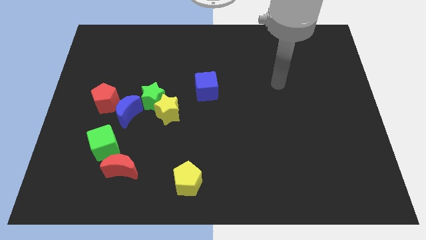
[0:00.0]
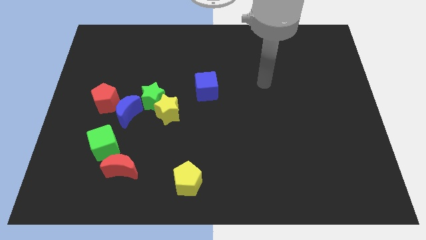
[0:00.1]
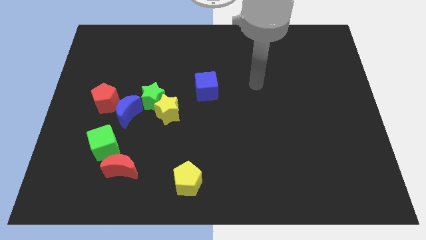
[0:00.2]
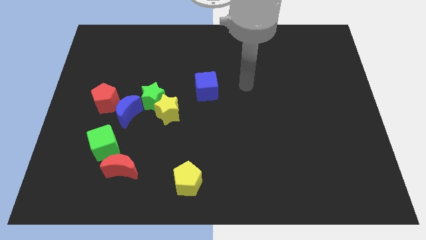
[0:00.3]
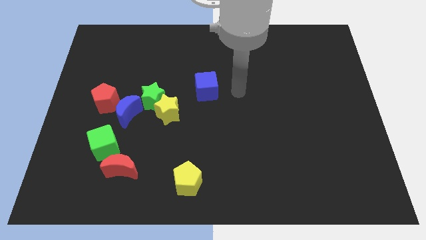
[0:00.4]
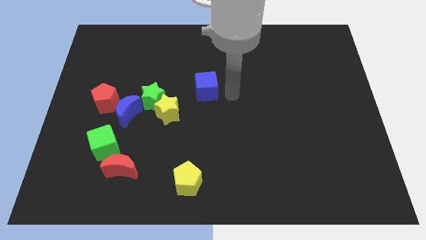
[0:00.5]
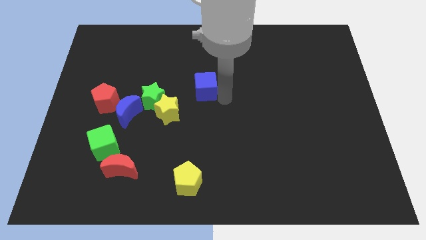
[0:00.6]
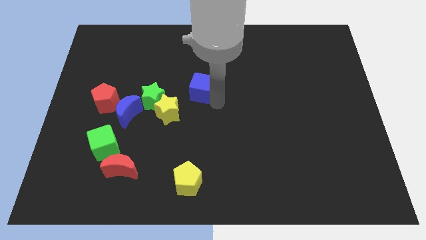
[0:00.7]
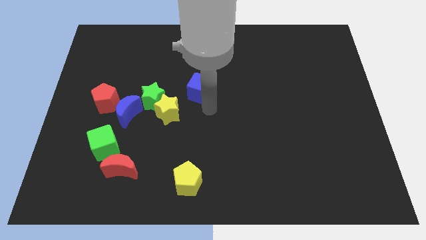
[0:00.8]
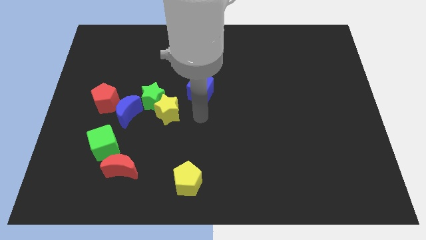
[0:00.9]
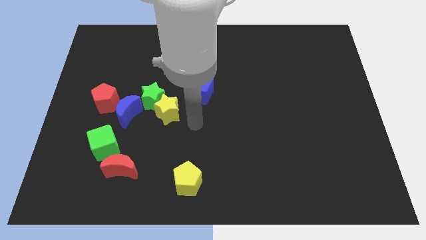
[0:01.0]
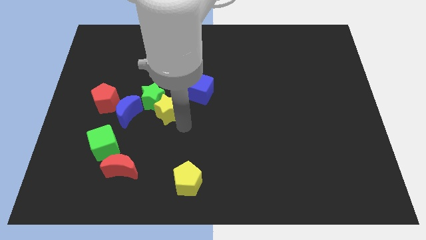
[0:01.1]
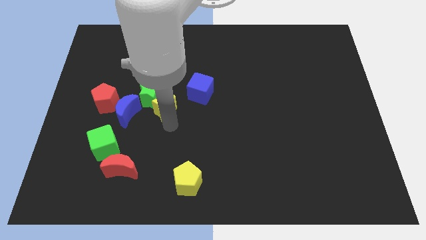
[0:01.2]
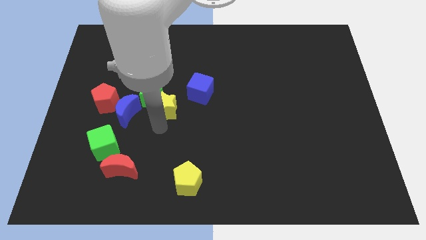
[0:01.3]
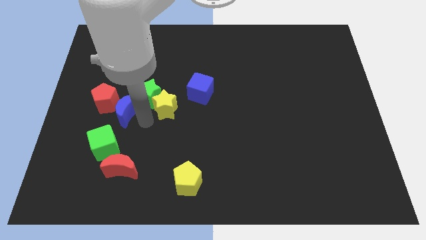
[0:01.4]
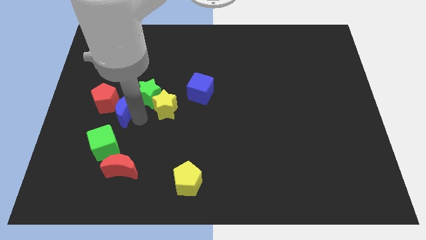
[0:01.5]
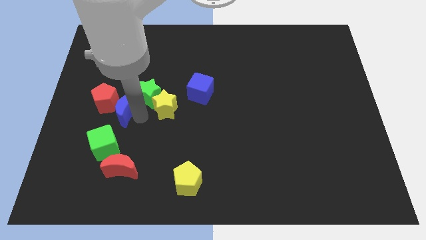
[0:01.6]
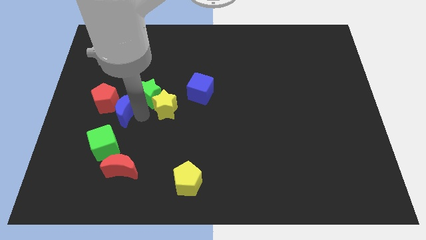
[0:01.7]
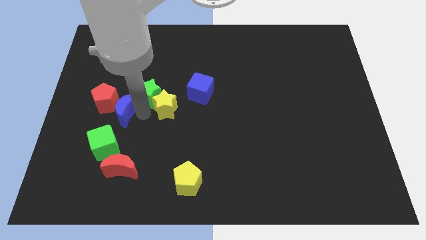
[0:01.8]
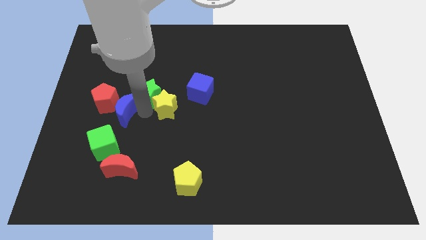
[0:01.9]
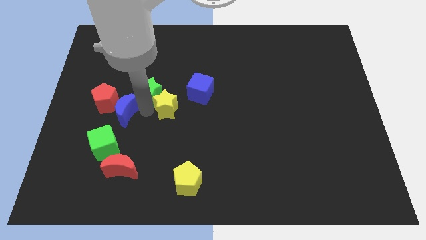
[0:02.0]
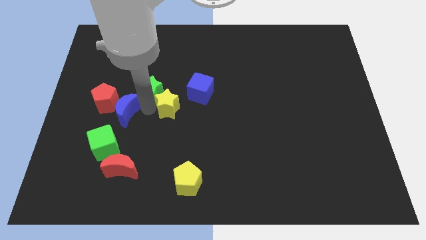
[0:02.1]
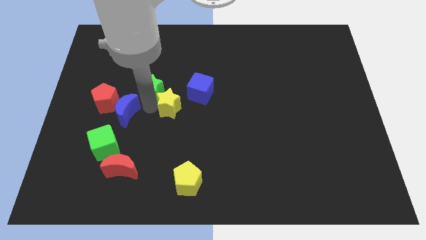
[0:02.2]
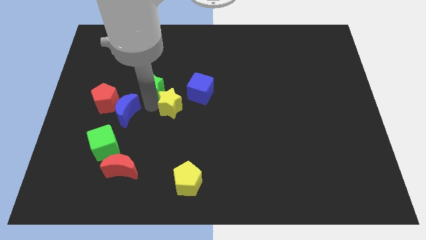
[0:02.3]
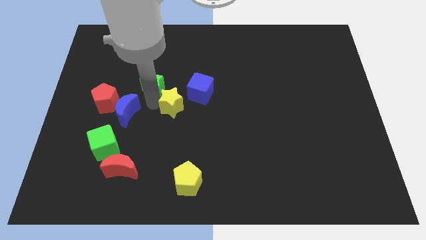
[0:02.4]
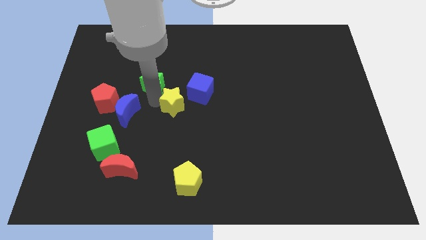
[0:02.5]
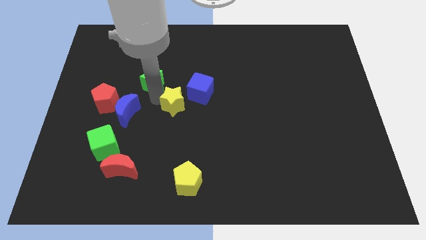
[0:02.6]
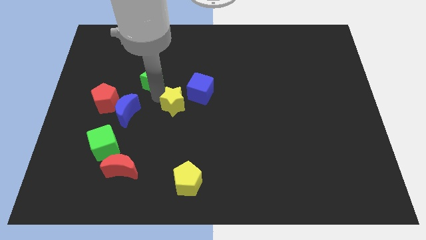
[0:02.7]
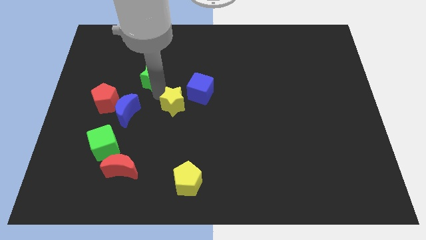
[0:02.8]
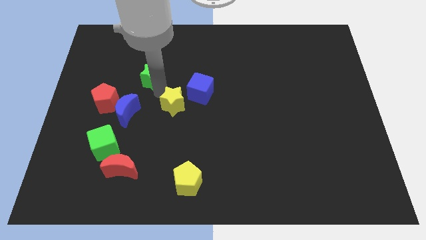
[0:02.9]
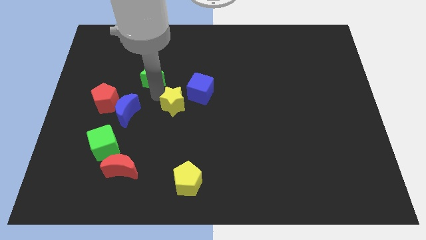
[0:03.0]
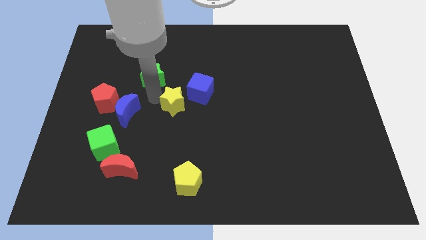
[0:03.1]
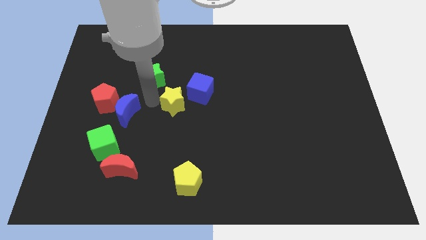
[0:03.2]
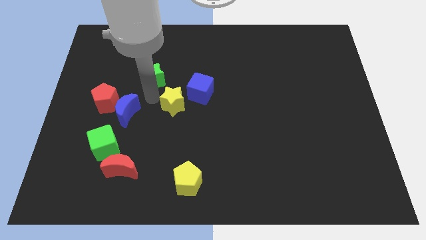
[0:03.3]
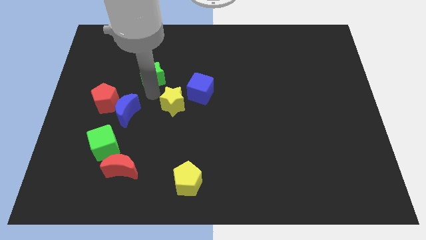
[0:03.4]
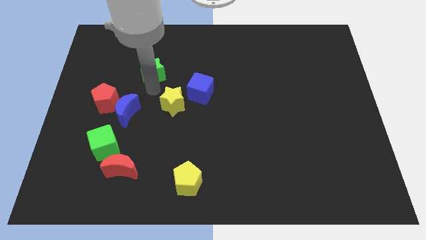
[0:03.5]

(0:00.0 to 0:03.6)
move the green star away from the yellow star and blue moon

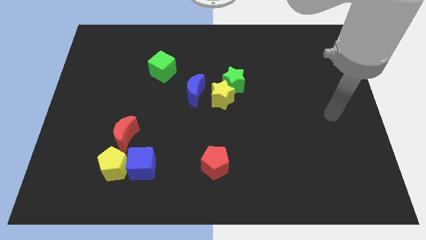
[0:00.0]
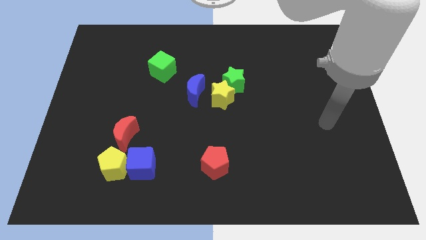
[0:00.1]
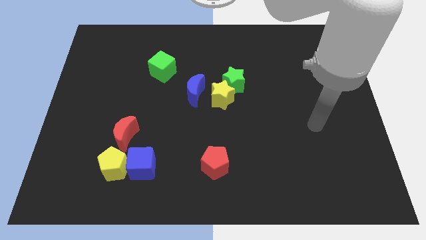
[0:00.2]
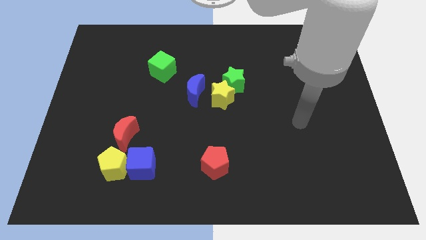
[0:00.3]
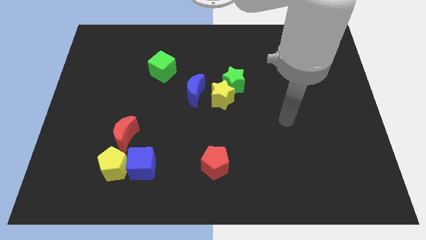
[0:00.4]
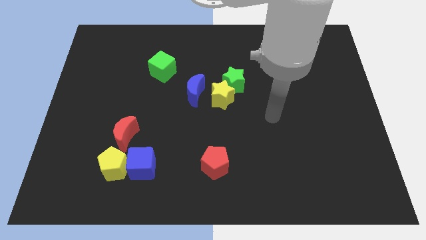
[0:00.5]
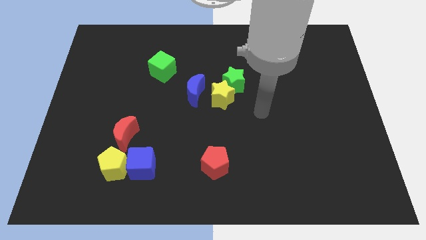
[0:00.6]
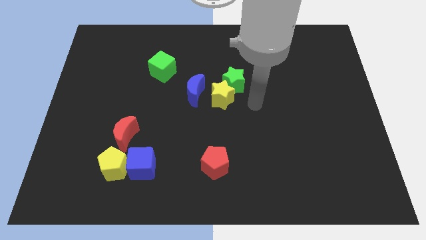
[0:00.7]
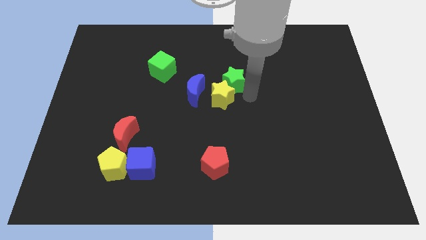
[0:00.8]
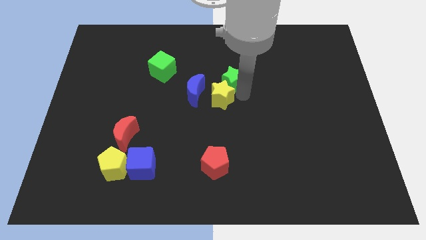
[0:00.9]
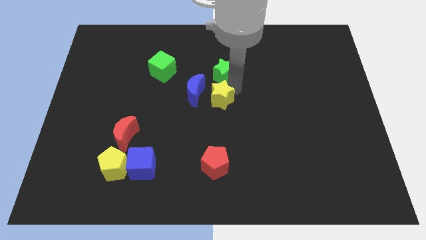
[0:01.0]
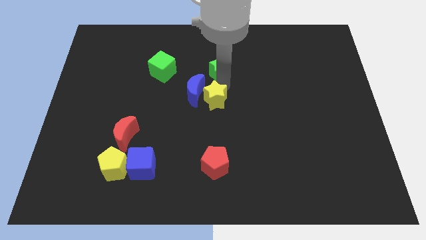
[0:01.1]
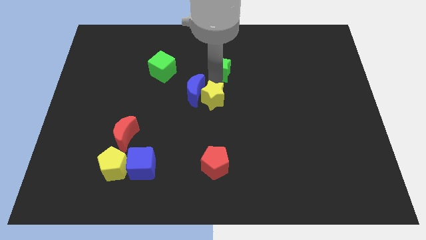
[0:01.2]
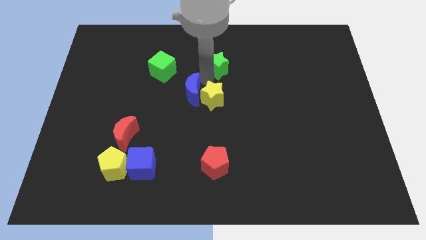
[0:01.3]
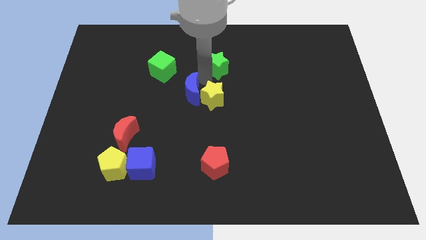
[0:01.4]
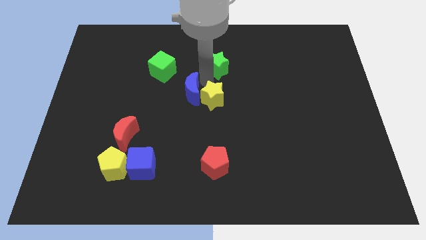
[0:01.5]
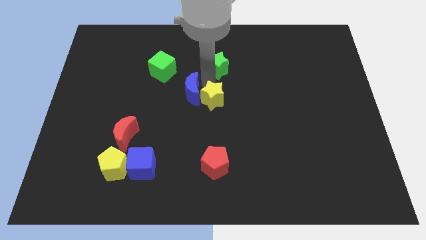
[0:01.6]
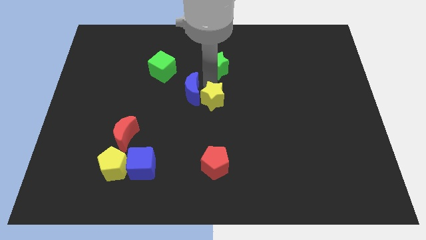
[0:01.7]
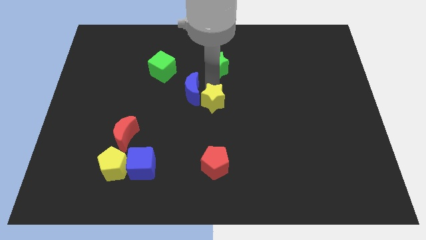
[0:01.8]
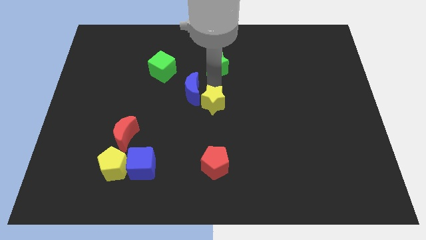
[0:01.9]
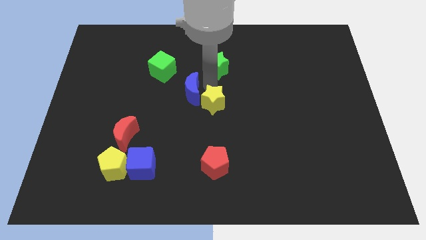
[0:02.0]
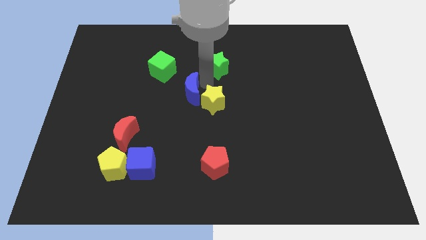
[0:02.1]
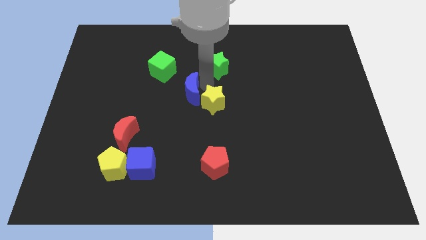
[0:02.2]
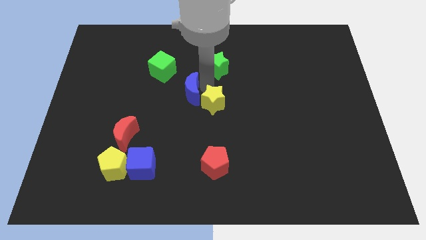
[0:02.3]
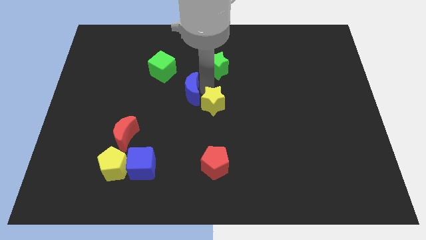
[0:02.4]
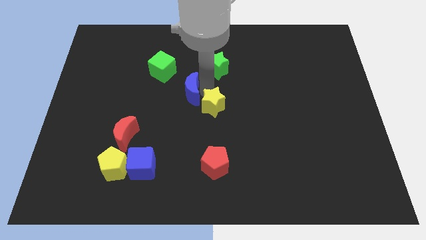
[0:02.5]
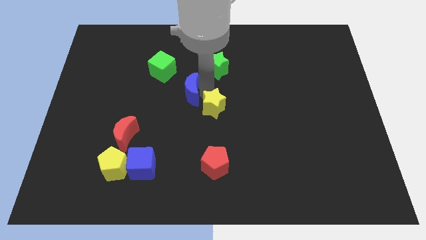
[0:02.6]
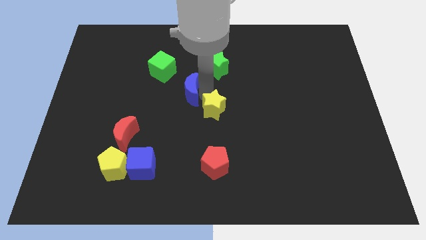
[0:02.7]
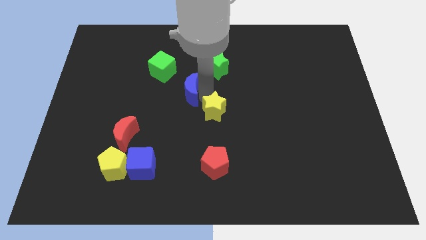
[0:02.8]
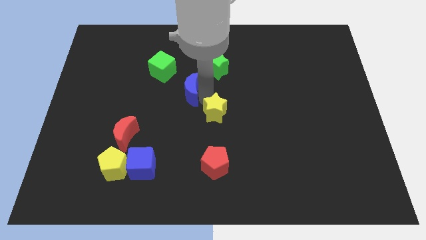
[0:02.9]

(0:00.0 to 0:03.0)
pull the yellow star apart from the green star and blue moon

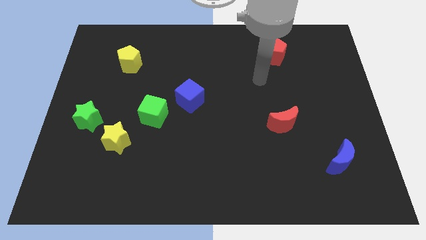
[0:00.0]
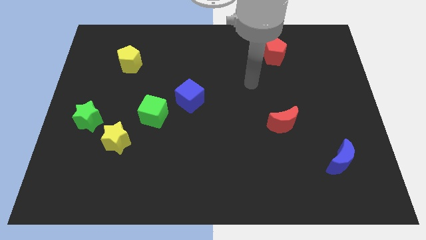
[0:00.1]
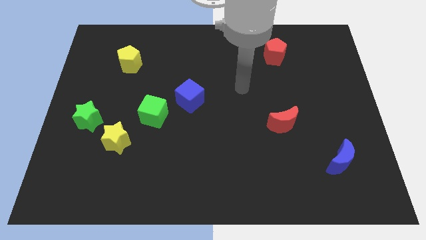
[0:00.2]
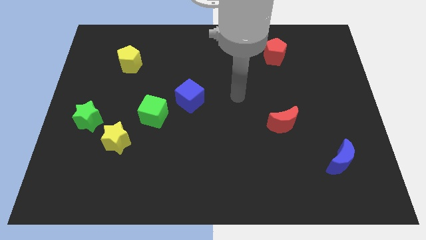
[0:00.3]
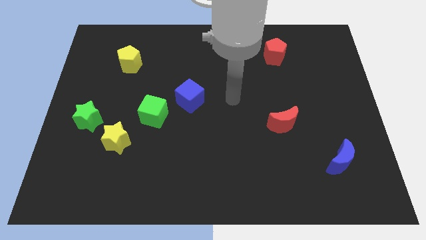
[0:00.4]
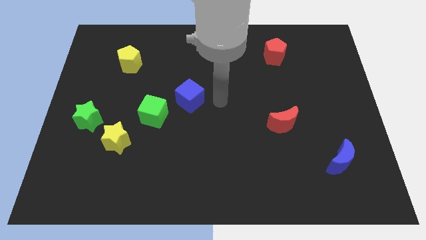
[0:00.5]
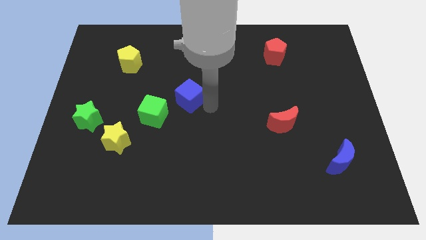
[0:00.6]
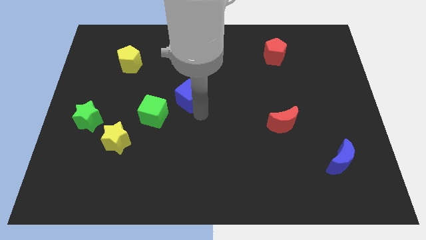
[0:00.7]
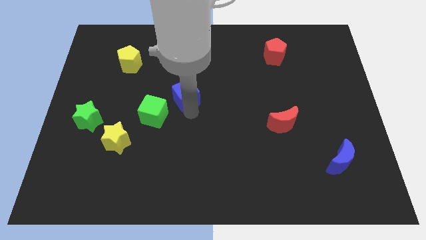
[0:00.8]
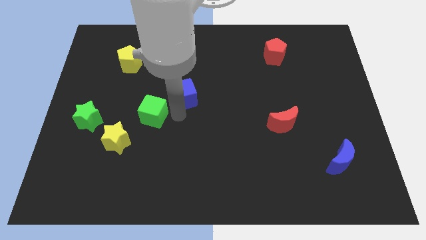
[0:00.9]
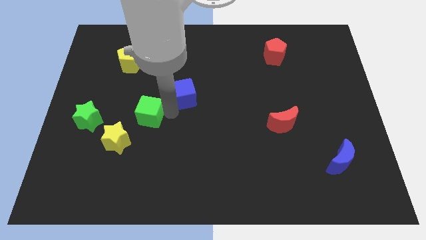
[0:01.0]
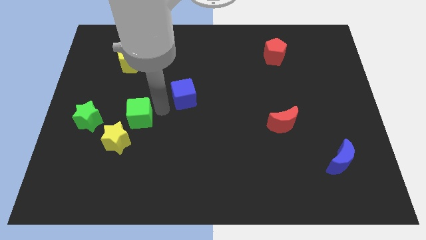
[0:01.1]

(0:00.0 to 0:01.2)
pull the blue cube apart from the green cube

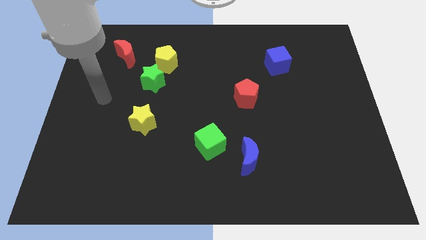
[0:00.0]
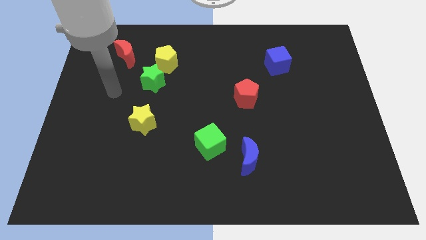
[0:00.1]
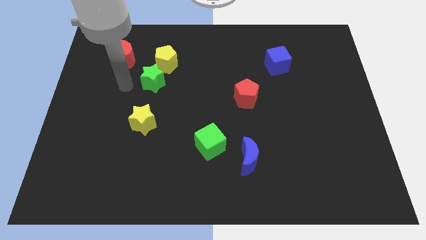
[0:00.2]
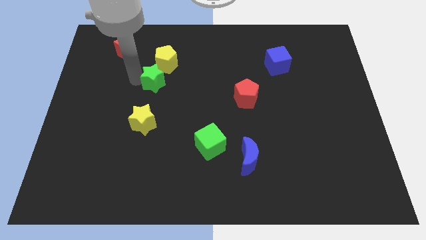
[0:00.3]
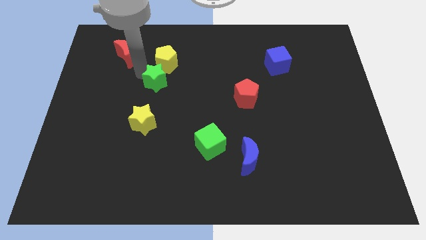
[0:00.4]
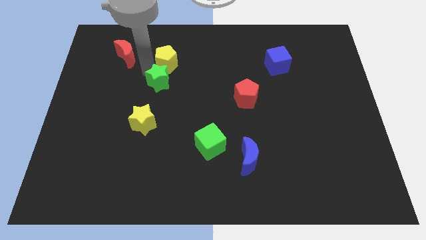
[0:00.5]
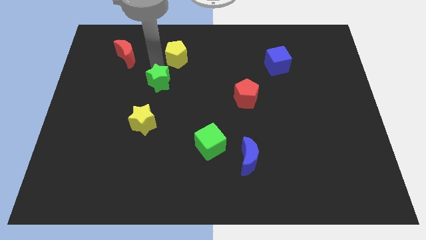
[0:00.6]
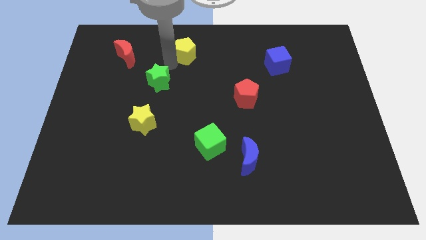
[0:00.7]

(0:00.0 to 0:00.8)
pull the green star apart from the yellow pentagon

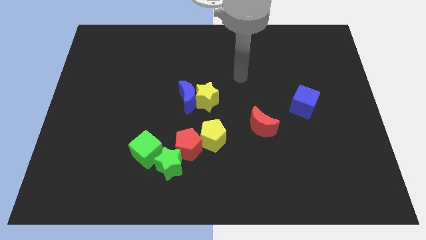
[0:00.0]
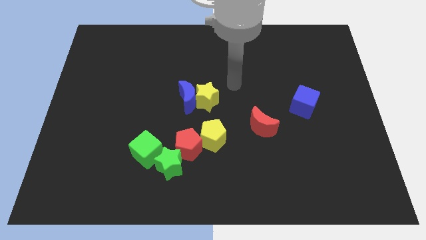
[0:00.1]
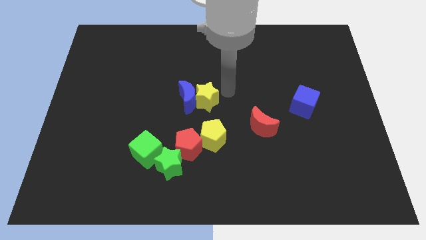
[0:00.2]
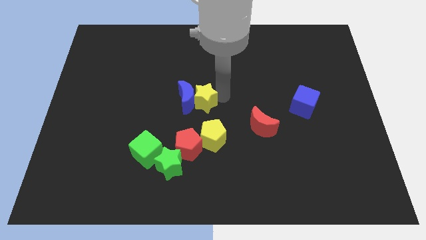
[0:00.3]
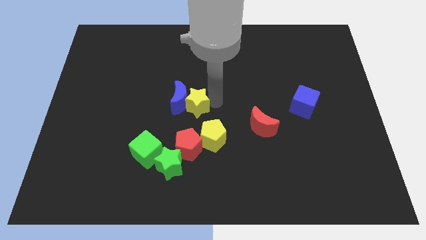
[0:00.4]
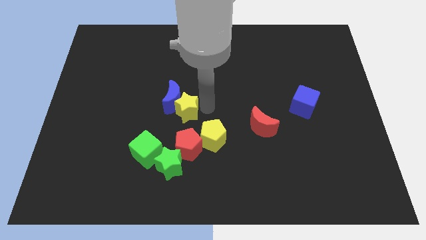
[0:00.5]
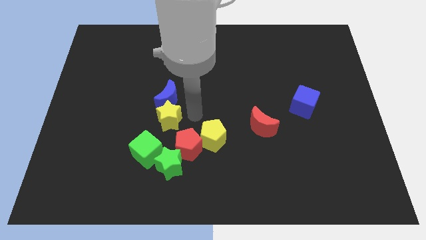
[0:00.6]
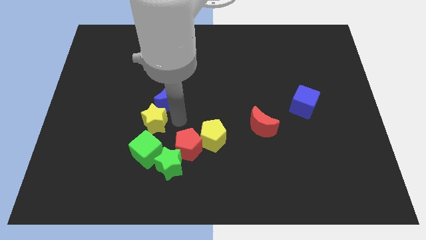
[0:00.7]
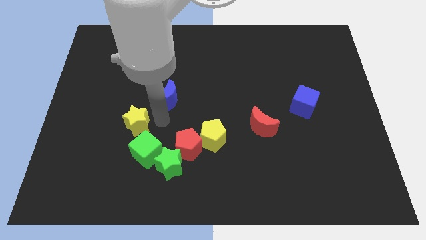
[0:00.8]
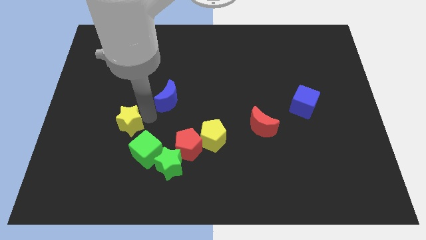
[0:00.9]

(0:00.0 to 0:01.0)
move the blue moon away from the yellow star
